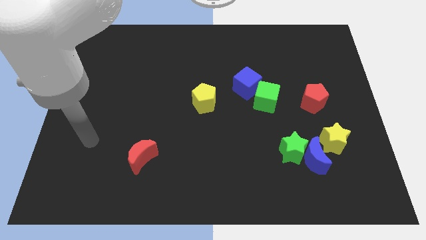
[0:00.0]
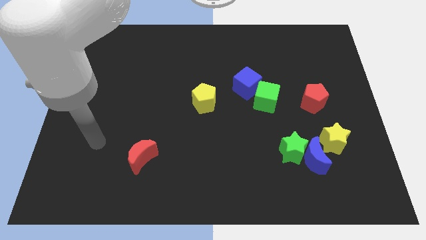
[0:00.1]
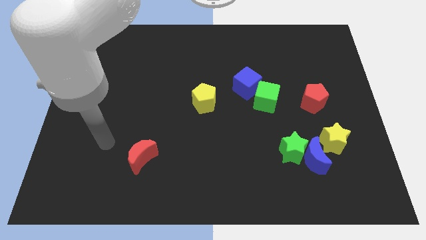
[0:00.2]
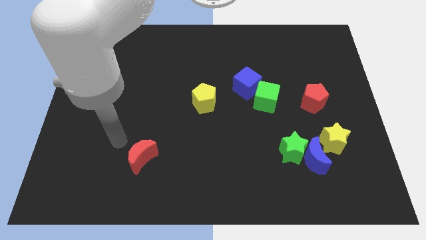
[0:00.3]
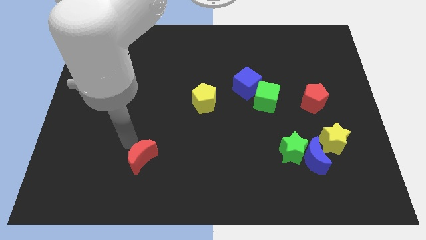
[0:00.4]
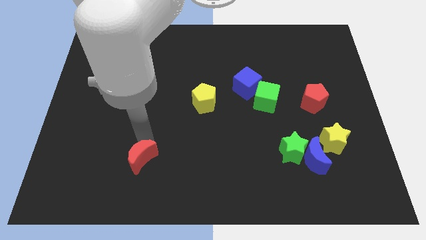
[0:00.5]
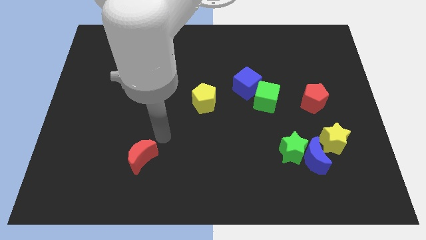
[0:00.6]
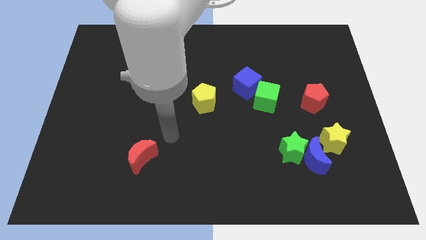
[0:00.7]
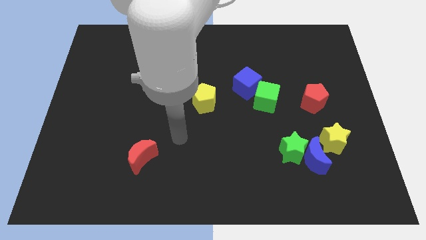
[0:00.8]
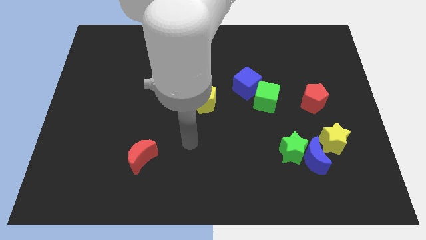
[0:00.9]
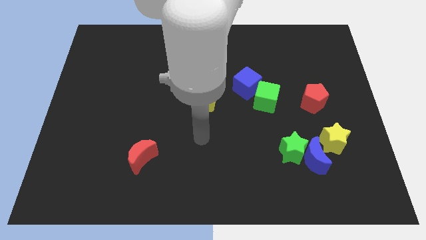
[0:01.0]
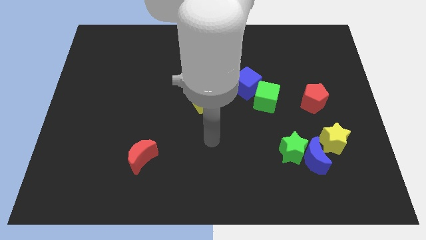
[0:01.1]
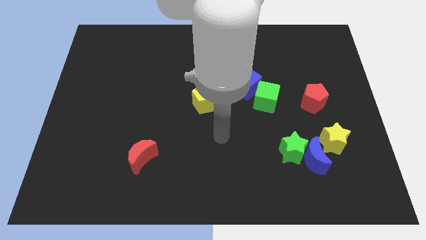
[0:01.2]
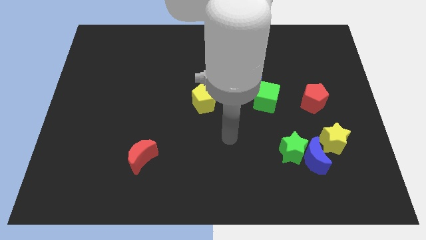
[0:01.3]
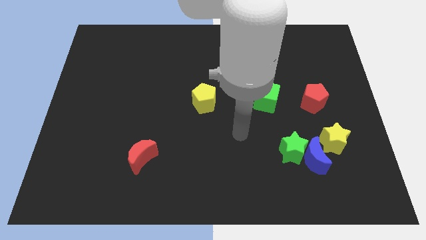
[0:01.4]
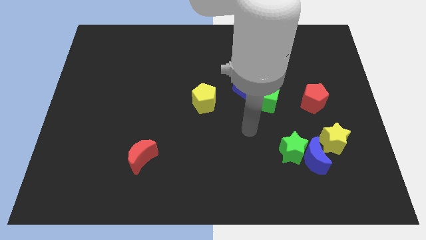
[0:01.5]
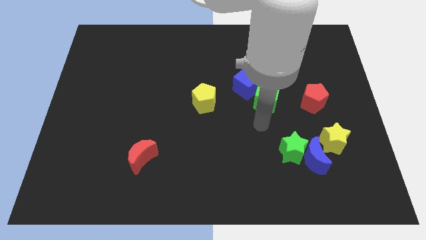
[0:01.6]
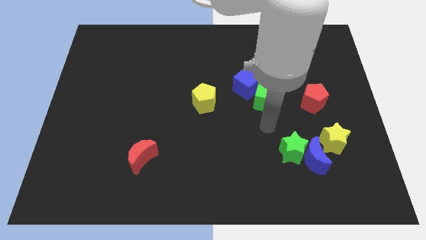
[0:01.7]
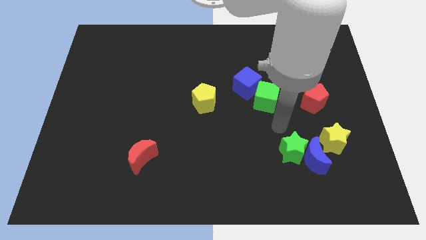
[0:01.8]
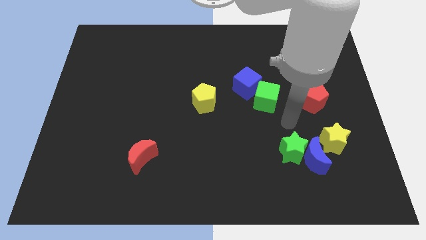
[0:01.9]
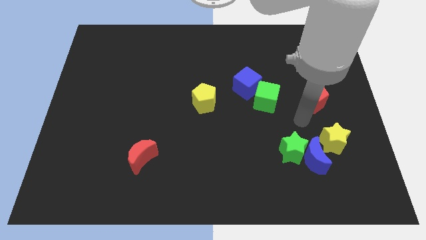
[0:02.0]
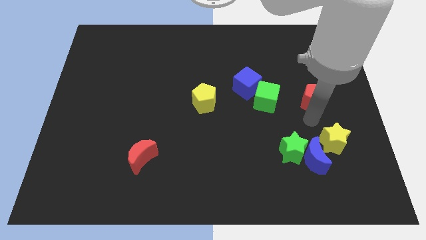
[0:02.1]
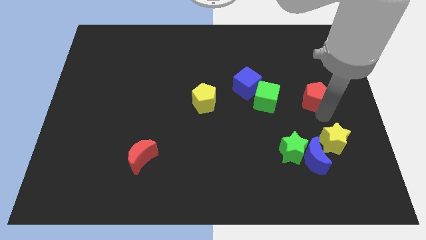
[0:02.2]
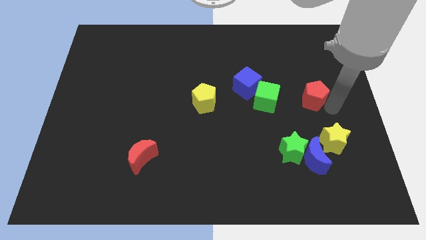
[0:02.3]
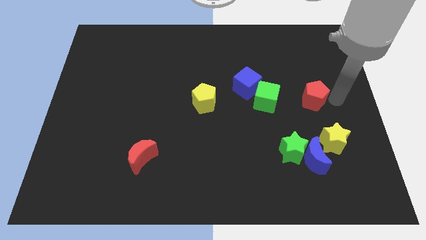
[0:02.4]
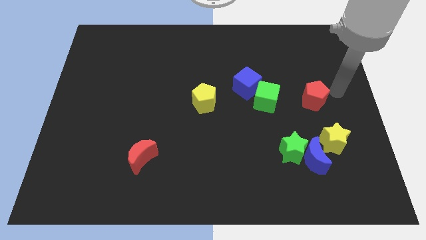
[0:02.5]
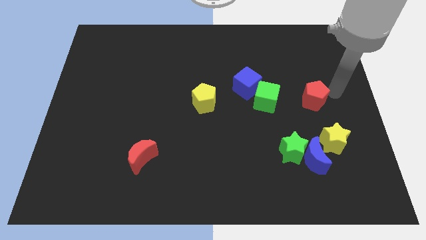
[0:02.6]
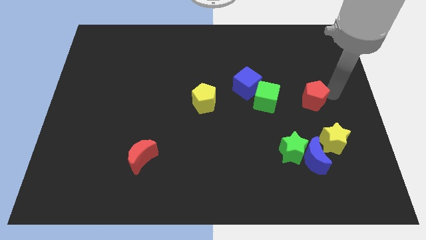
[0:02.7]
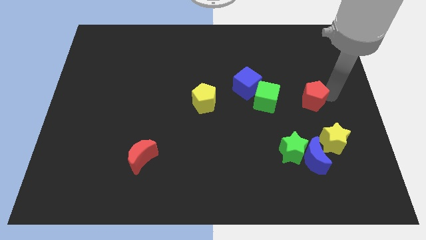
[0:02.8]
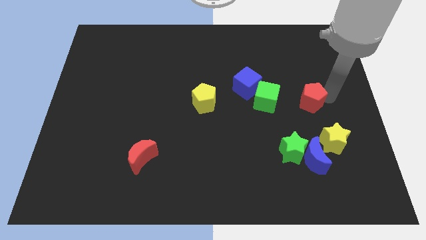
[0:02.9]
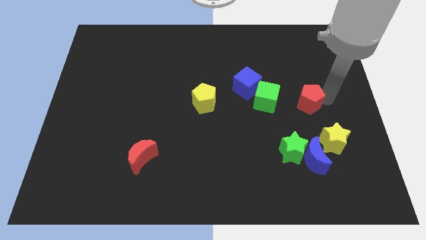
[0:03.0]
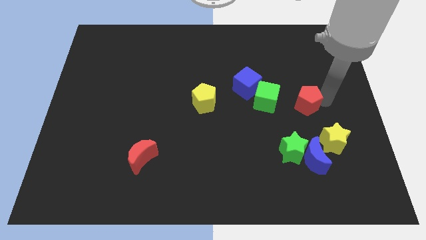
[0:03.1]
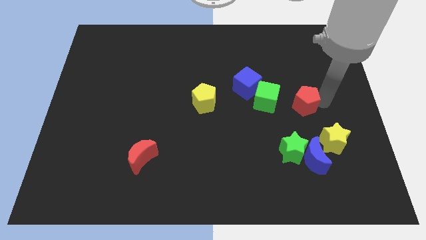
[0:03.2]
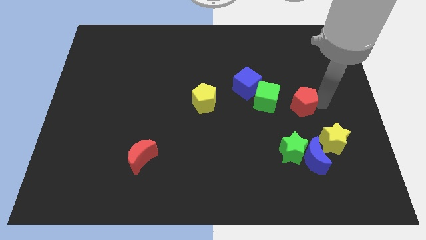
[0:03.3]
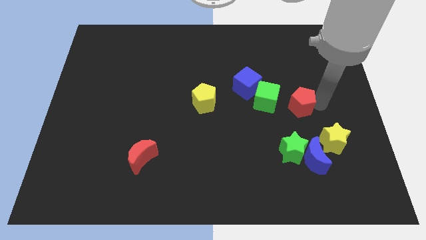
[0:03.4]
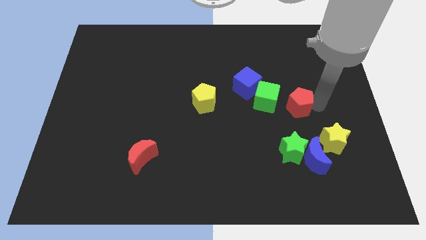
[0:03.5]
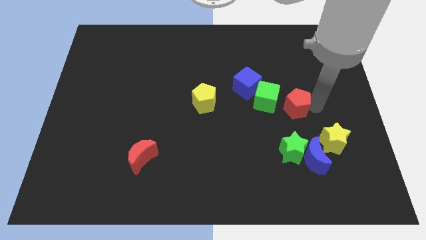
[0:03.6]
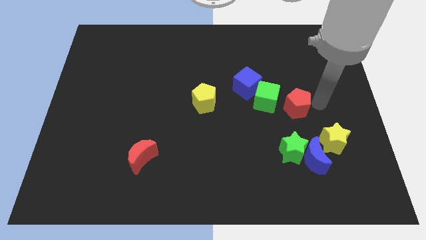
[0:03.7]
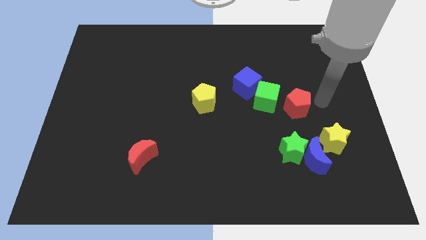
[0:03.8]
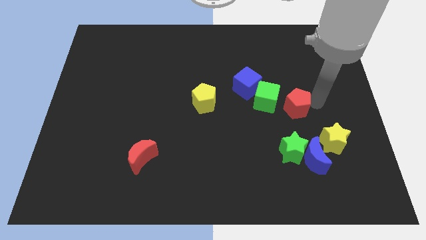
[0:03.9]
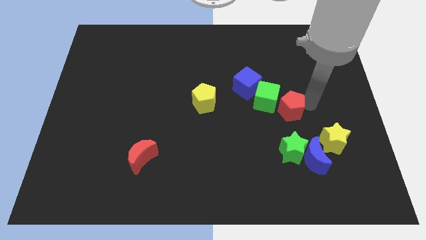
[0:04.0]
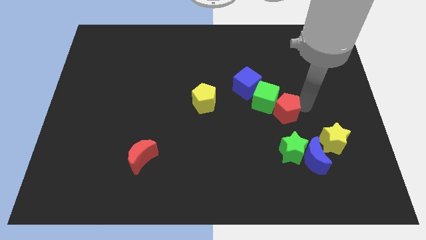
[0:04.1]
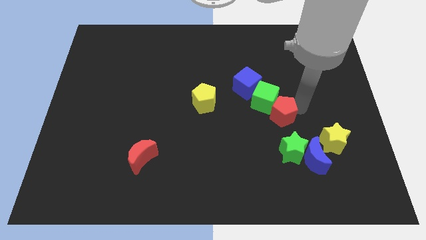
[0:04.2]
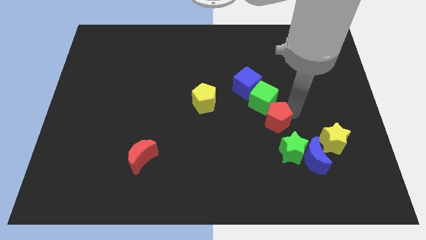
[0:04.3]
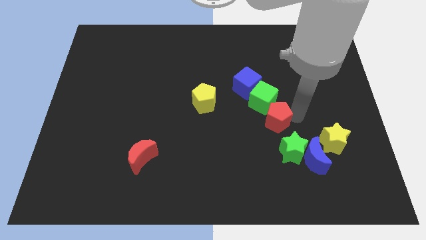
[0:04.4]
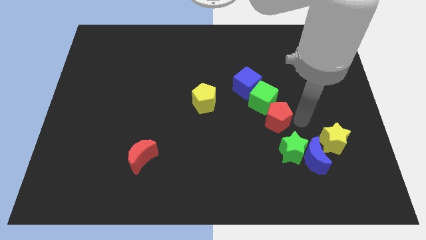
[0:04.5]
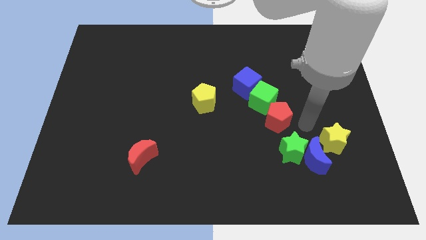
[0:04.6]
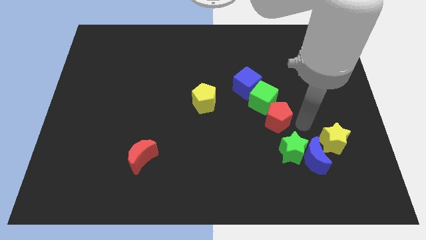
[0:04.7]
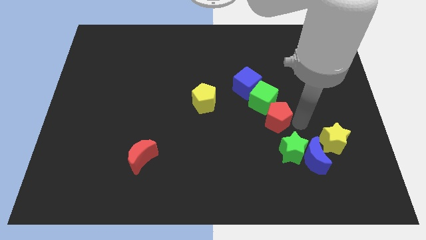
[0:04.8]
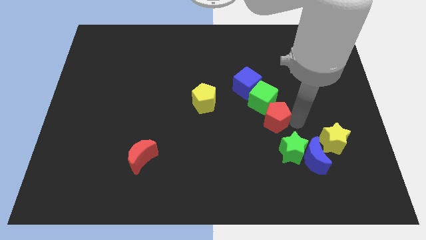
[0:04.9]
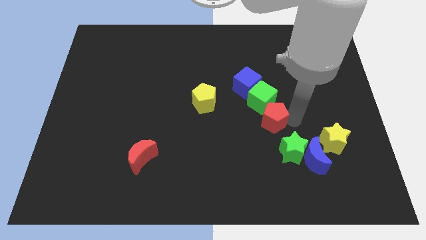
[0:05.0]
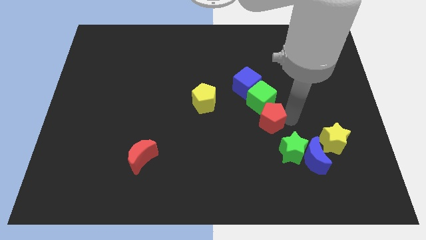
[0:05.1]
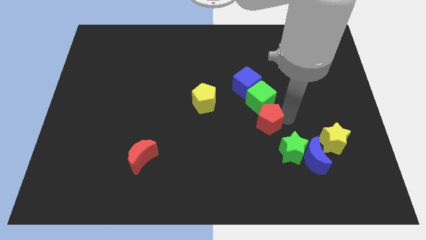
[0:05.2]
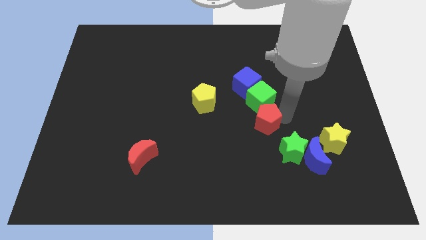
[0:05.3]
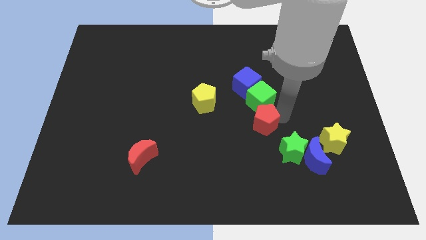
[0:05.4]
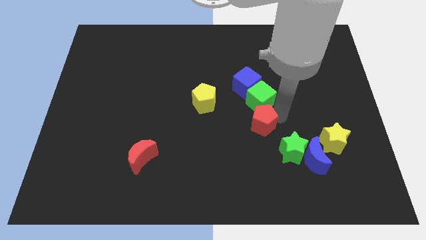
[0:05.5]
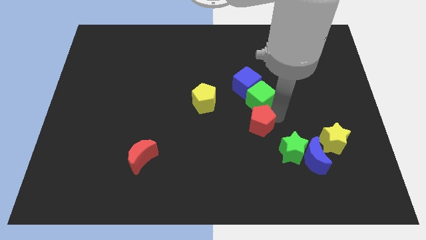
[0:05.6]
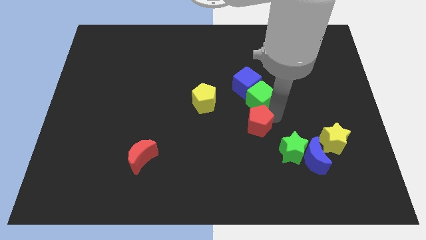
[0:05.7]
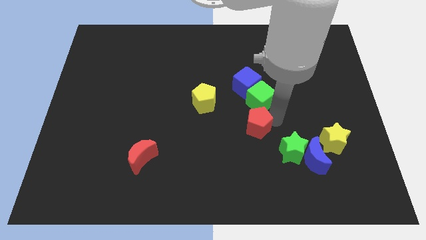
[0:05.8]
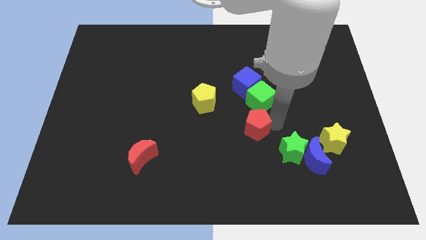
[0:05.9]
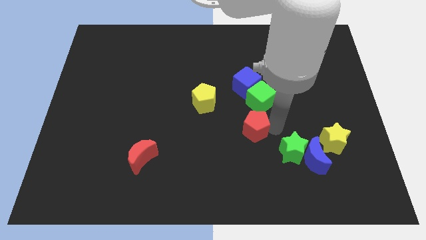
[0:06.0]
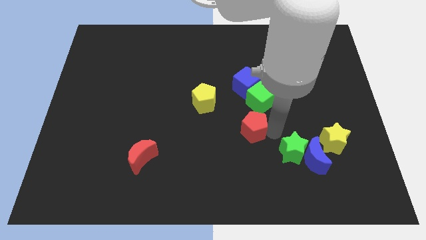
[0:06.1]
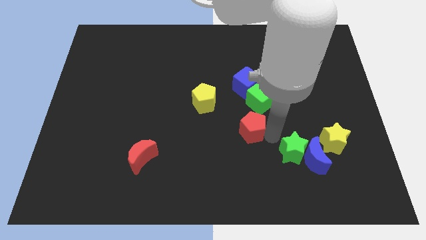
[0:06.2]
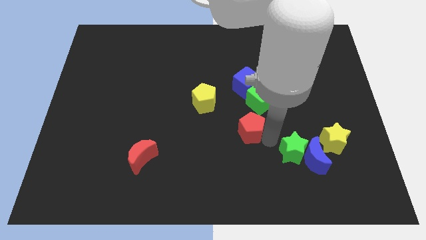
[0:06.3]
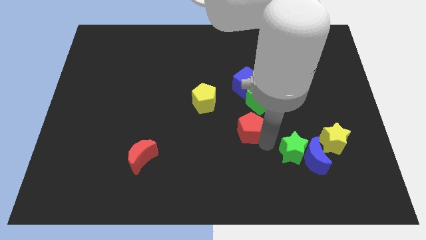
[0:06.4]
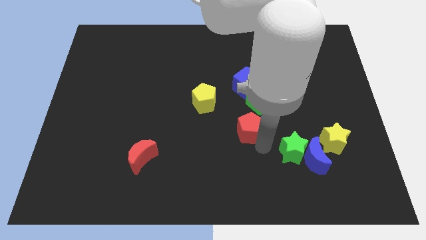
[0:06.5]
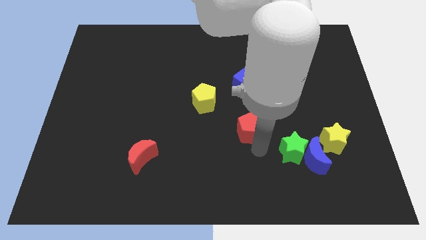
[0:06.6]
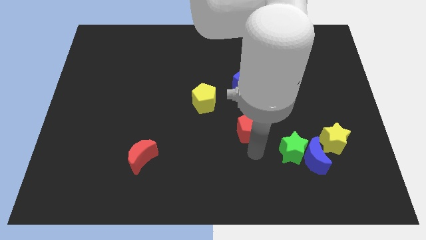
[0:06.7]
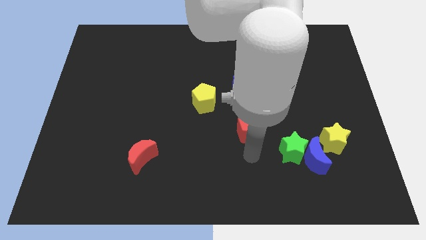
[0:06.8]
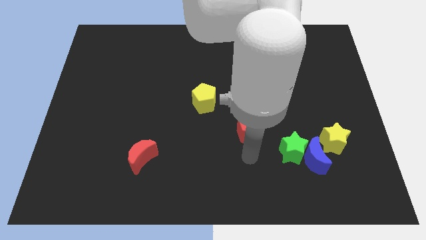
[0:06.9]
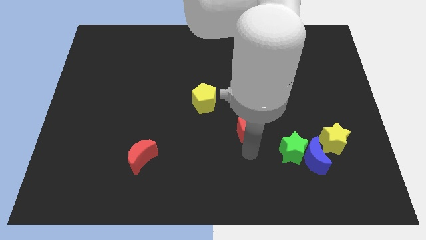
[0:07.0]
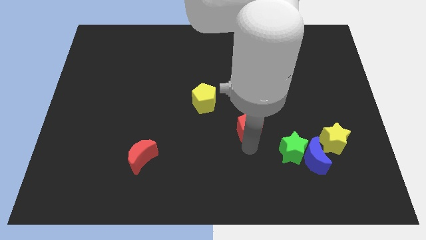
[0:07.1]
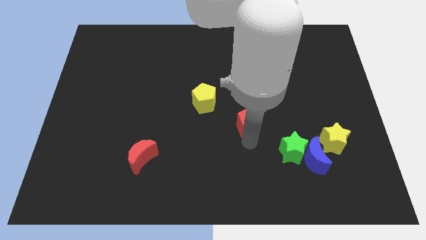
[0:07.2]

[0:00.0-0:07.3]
slide the red pentagon diagonally down and to the right of the yellow pentagon

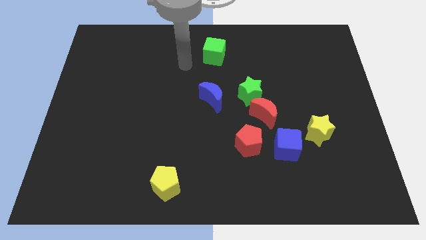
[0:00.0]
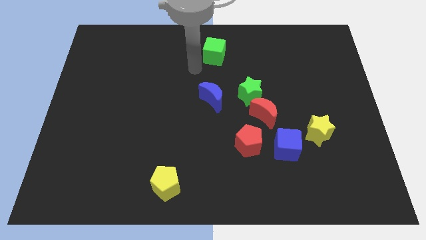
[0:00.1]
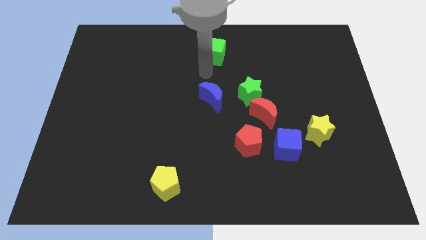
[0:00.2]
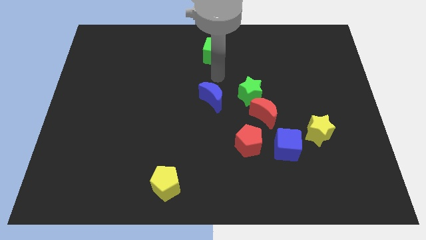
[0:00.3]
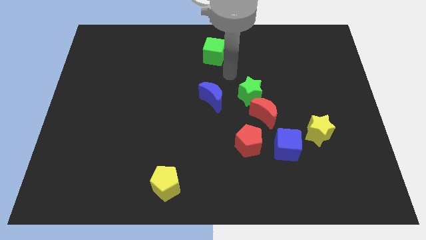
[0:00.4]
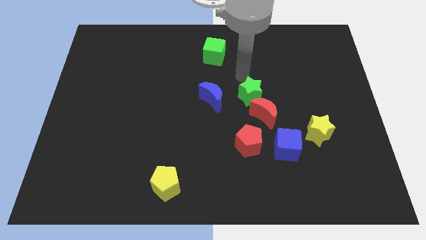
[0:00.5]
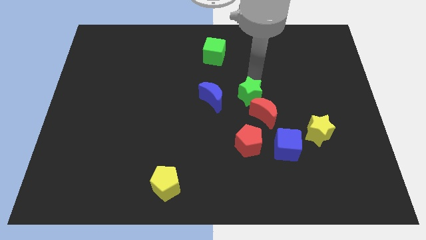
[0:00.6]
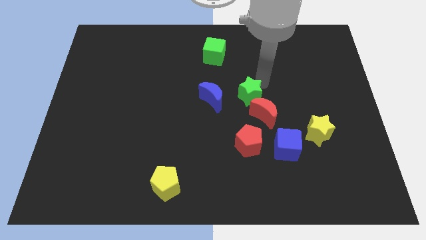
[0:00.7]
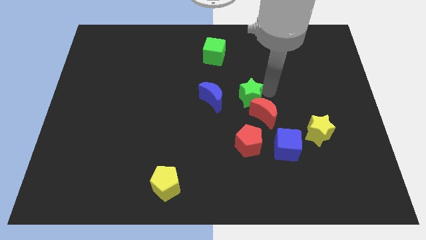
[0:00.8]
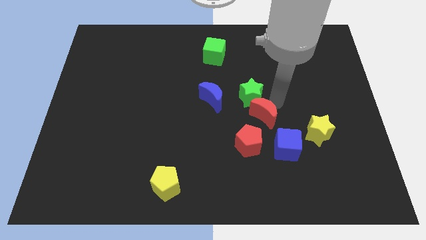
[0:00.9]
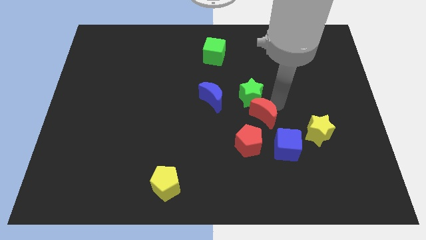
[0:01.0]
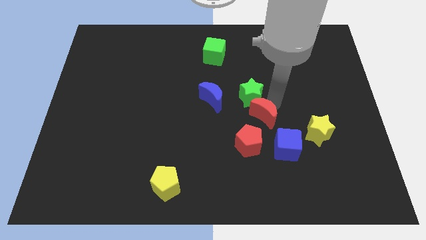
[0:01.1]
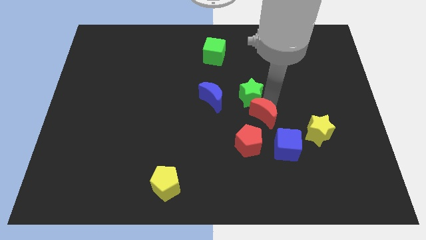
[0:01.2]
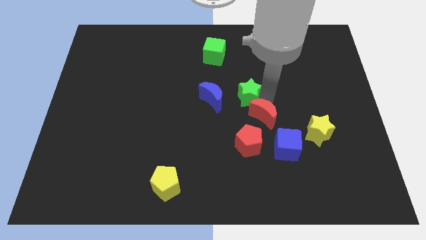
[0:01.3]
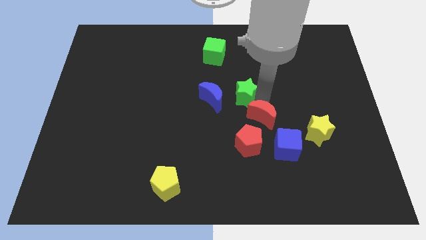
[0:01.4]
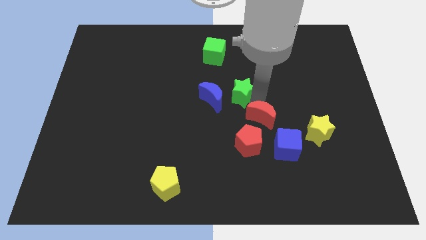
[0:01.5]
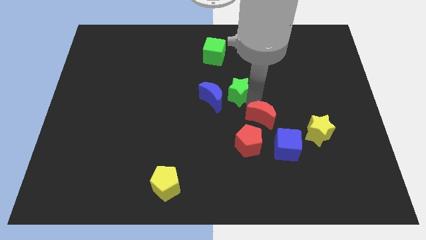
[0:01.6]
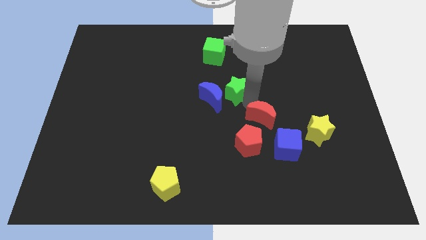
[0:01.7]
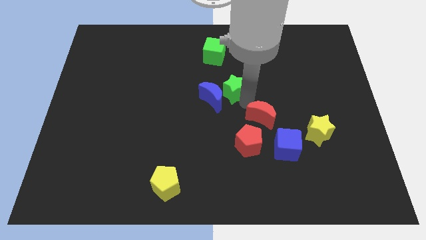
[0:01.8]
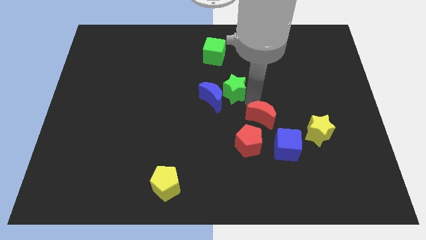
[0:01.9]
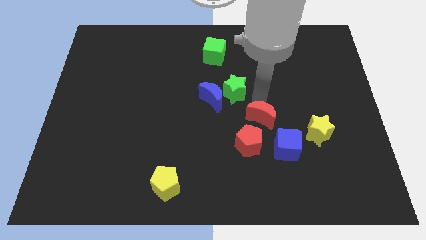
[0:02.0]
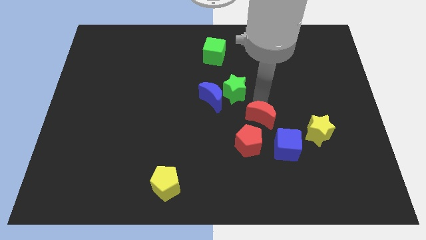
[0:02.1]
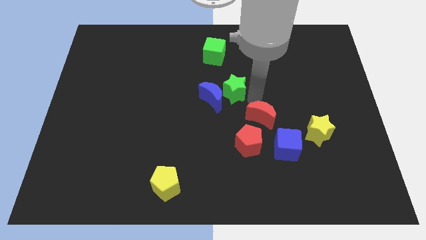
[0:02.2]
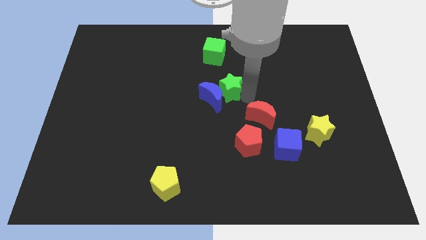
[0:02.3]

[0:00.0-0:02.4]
move the green star below the green cube
